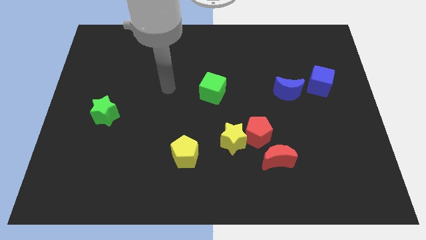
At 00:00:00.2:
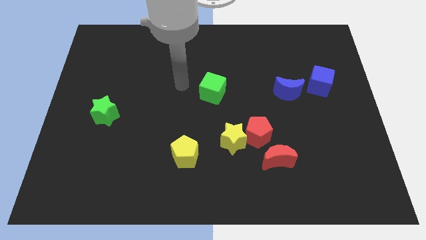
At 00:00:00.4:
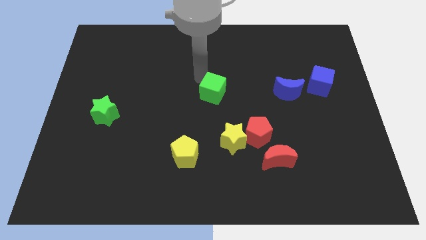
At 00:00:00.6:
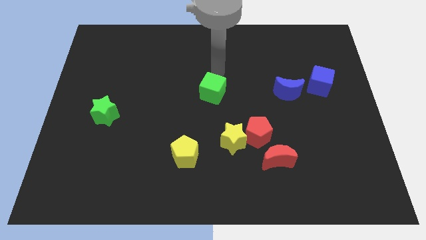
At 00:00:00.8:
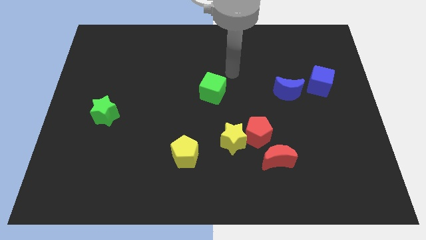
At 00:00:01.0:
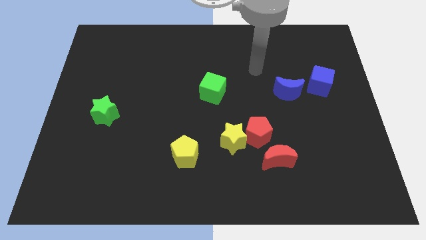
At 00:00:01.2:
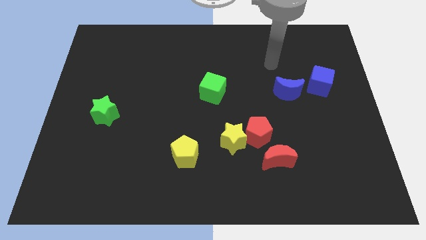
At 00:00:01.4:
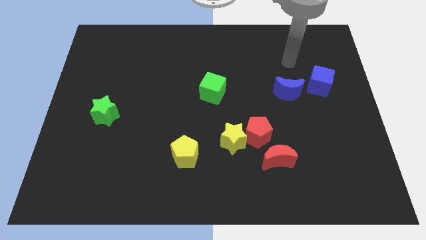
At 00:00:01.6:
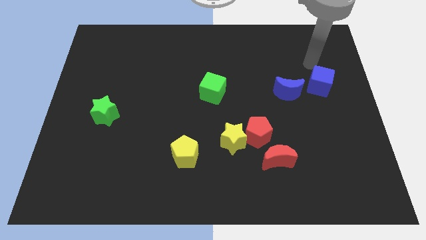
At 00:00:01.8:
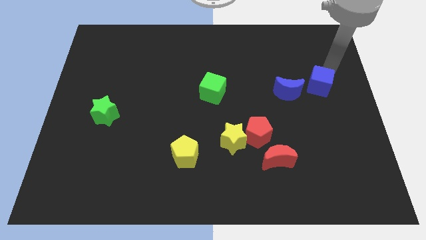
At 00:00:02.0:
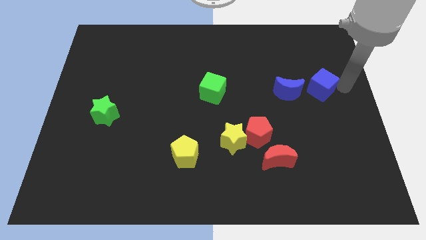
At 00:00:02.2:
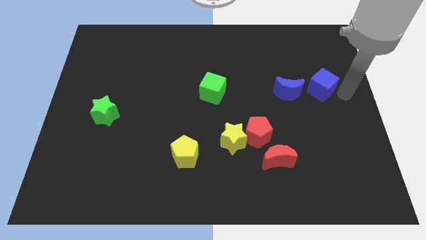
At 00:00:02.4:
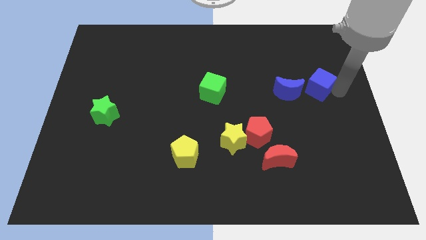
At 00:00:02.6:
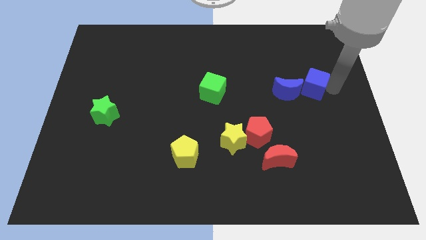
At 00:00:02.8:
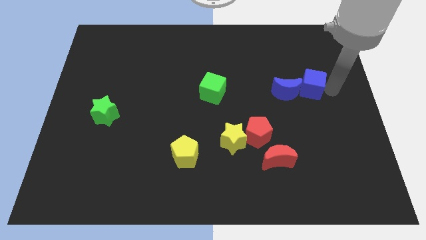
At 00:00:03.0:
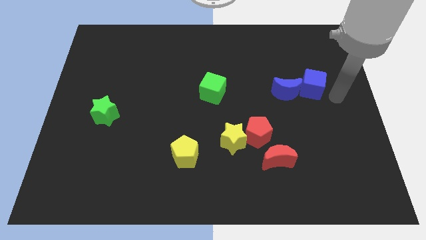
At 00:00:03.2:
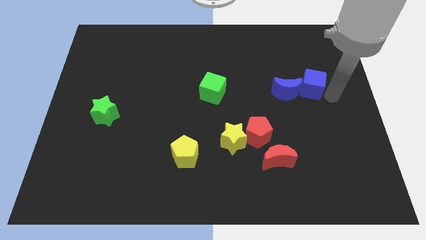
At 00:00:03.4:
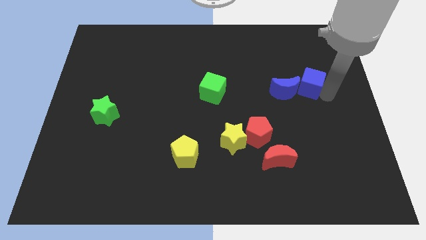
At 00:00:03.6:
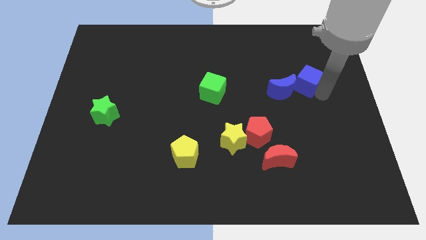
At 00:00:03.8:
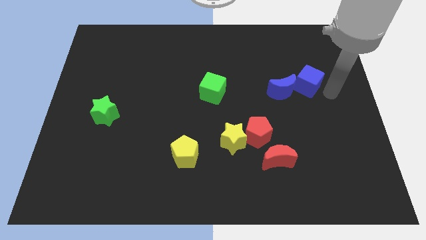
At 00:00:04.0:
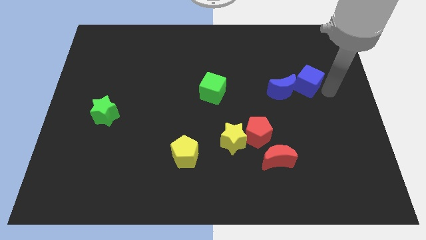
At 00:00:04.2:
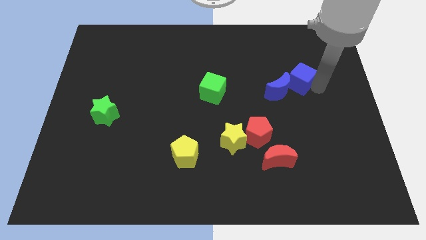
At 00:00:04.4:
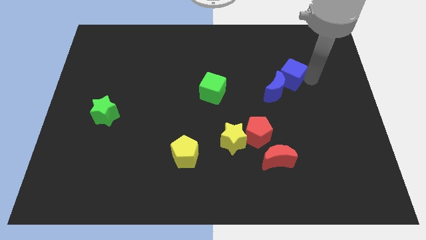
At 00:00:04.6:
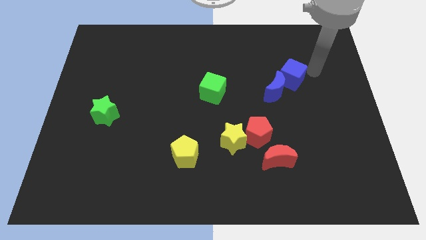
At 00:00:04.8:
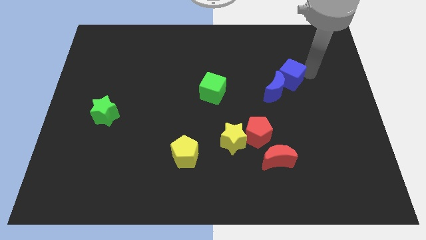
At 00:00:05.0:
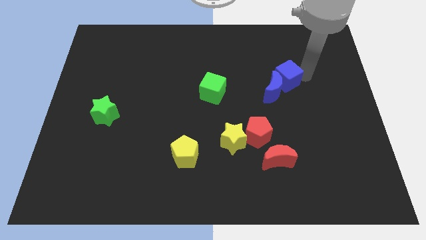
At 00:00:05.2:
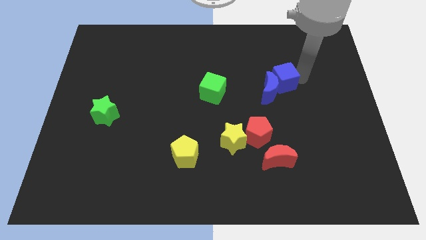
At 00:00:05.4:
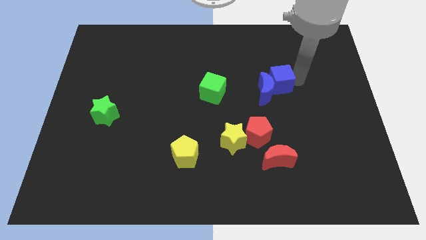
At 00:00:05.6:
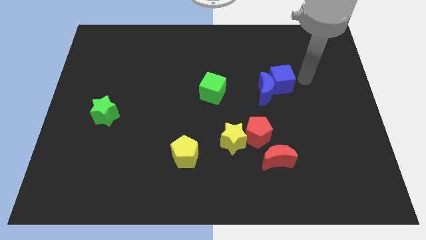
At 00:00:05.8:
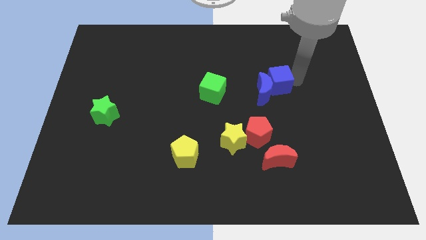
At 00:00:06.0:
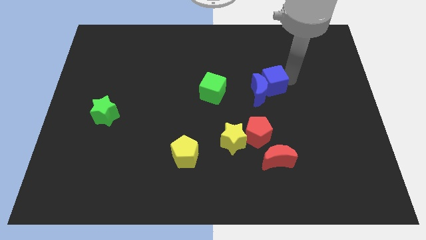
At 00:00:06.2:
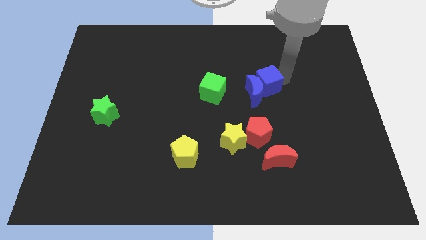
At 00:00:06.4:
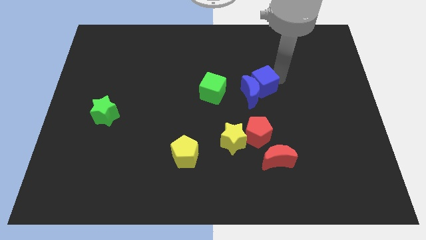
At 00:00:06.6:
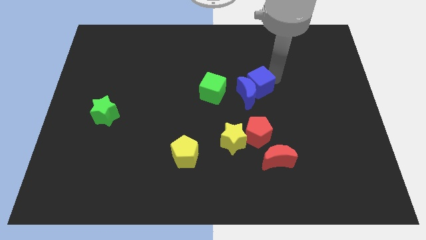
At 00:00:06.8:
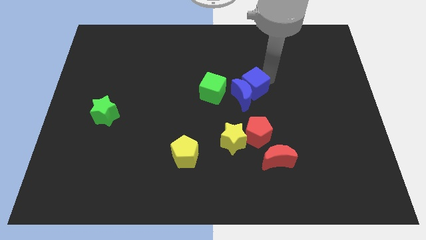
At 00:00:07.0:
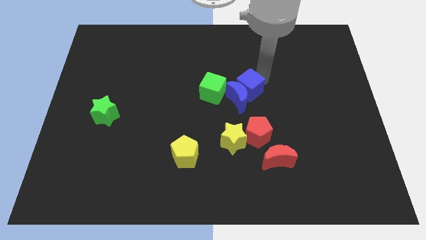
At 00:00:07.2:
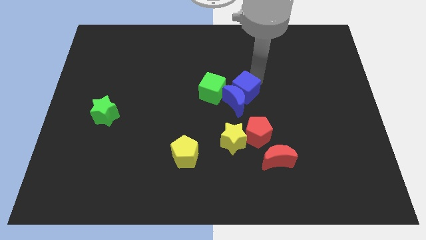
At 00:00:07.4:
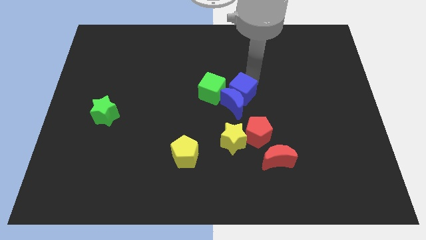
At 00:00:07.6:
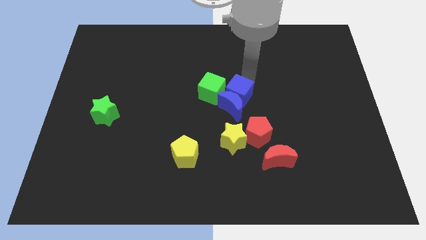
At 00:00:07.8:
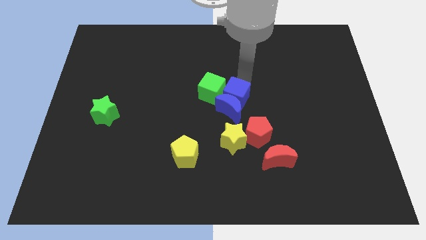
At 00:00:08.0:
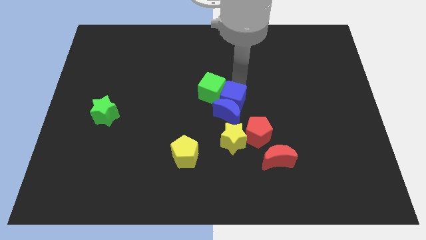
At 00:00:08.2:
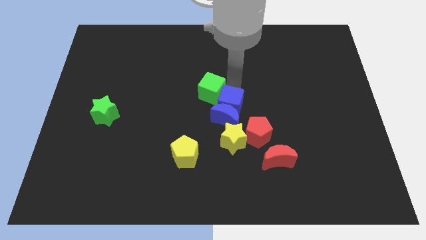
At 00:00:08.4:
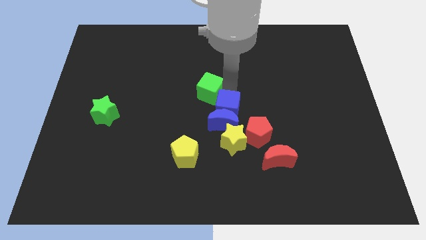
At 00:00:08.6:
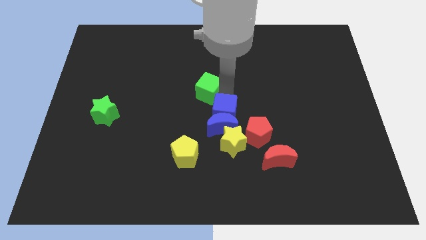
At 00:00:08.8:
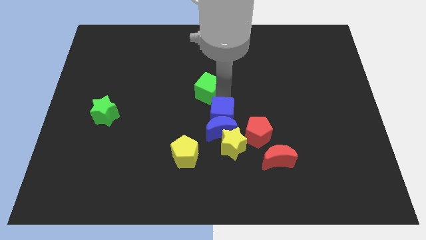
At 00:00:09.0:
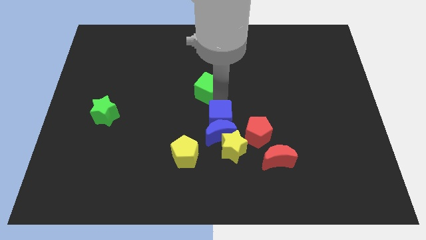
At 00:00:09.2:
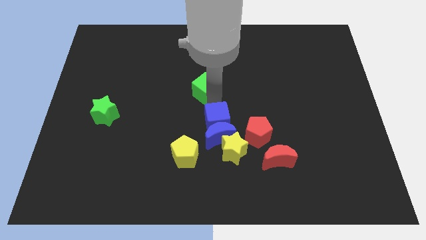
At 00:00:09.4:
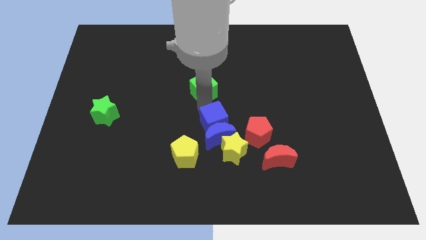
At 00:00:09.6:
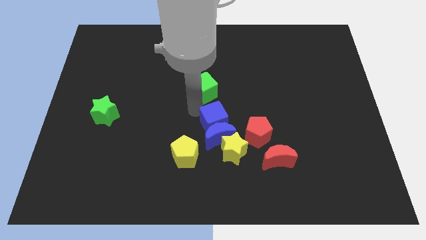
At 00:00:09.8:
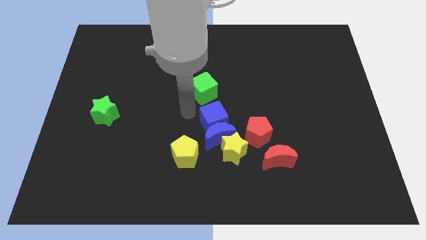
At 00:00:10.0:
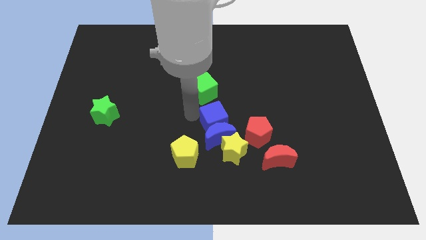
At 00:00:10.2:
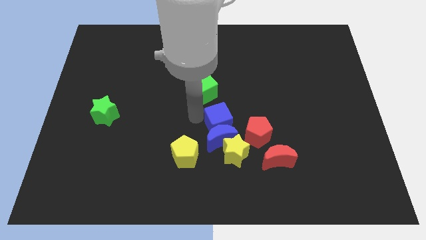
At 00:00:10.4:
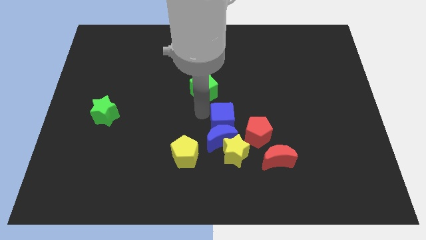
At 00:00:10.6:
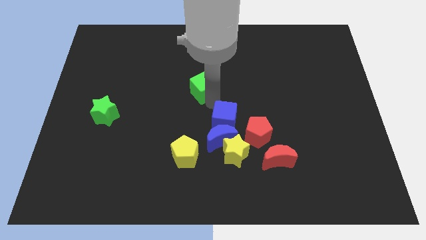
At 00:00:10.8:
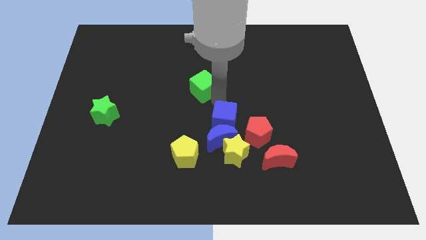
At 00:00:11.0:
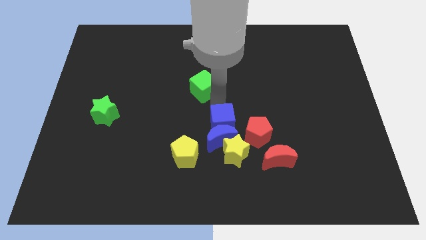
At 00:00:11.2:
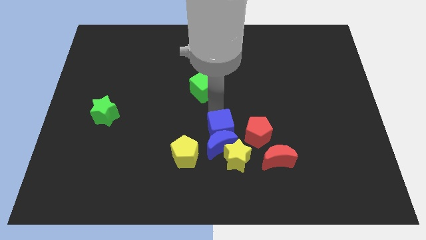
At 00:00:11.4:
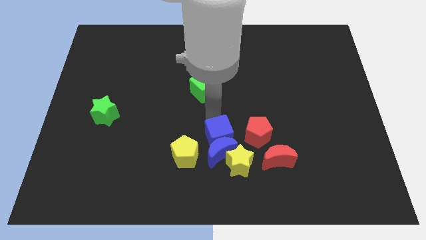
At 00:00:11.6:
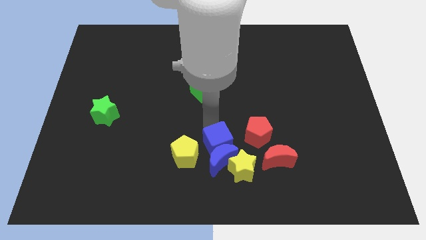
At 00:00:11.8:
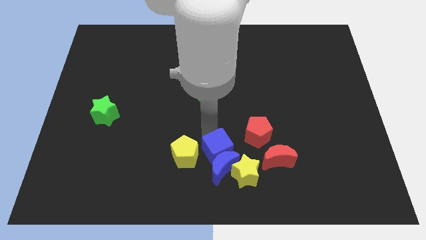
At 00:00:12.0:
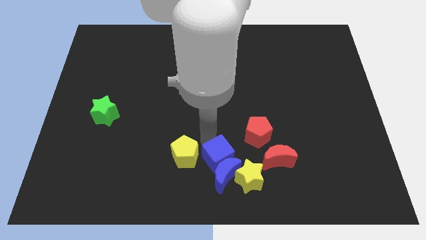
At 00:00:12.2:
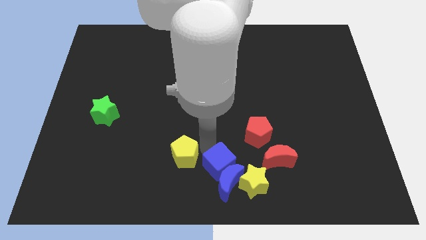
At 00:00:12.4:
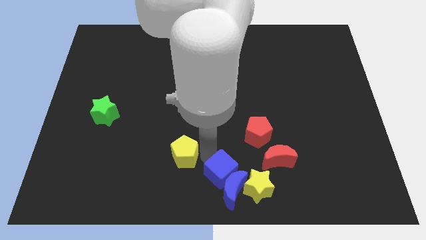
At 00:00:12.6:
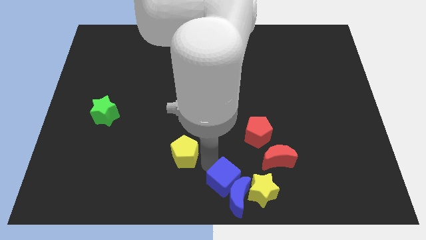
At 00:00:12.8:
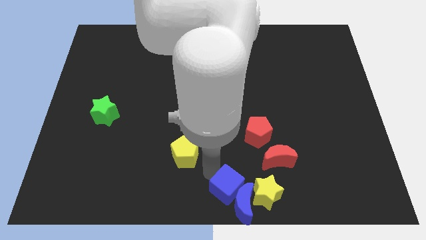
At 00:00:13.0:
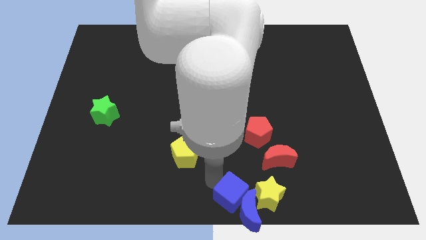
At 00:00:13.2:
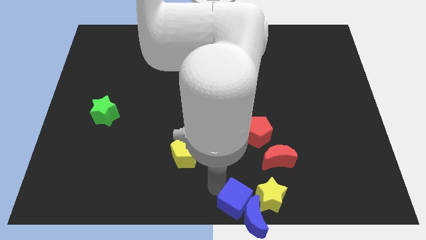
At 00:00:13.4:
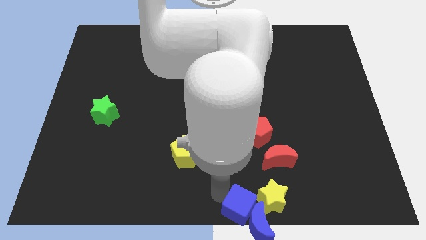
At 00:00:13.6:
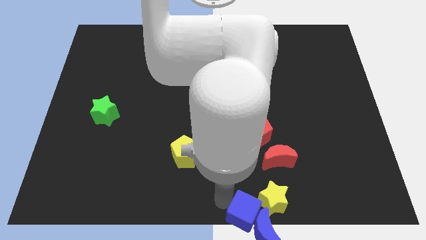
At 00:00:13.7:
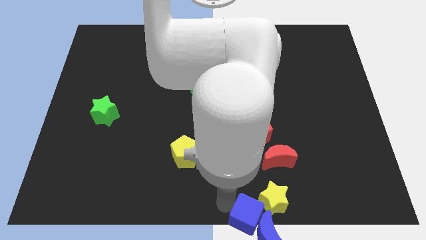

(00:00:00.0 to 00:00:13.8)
move the blue cube to the yellow star

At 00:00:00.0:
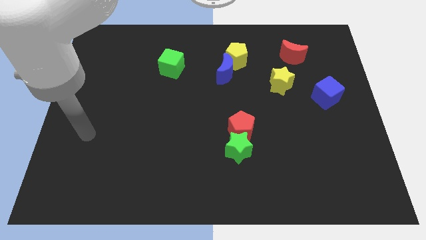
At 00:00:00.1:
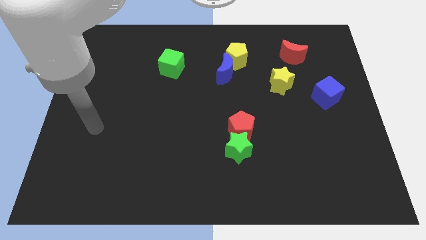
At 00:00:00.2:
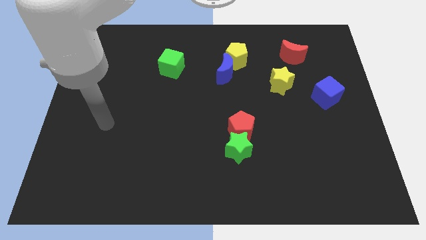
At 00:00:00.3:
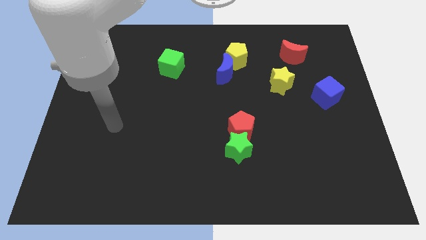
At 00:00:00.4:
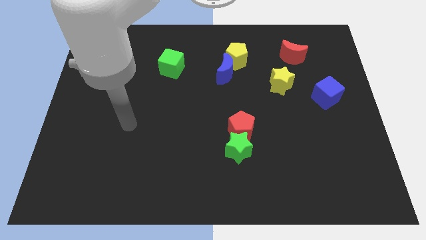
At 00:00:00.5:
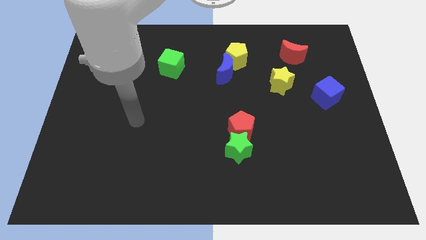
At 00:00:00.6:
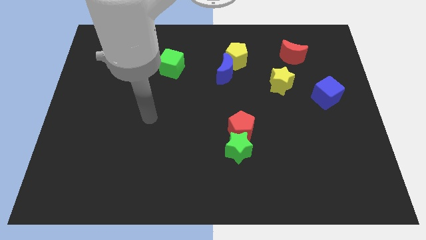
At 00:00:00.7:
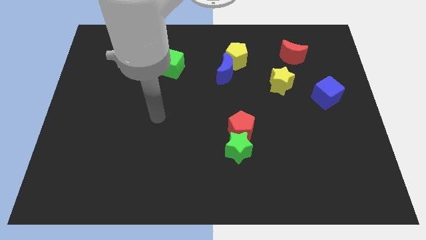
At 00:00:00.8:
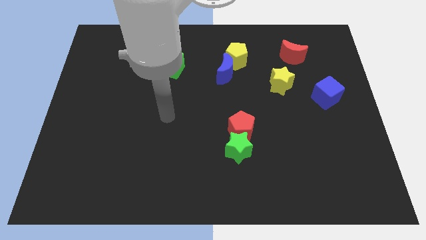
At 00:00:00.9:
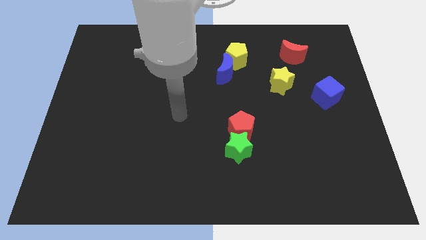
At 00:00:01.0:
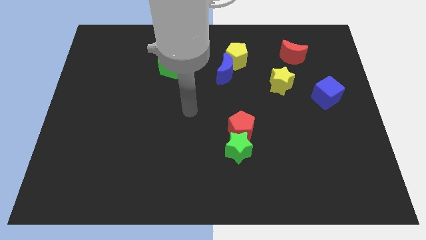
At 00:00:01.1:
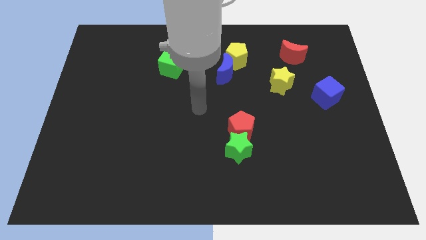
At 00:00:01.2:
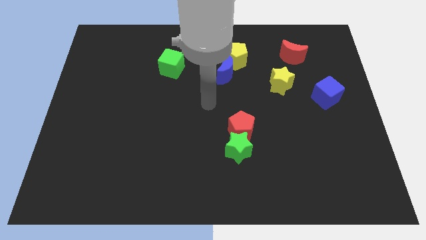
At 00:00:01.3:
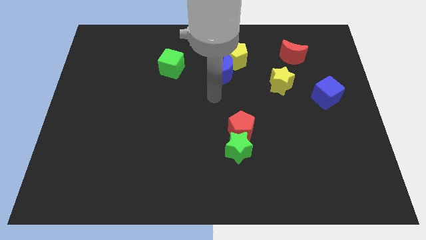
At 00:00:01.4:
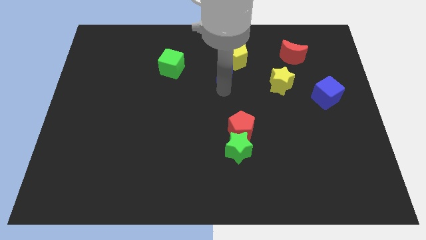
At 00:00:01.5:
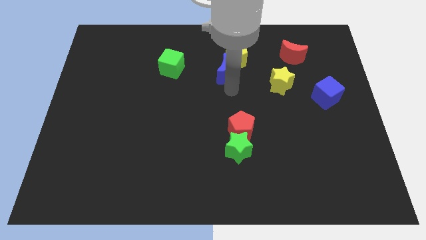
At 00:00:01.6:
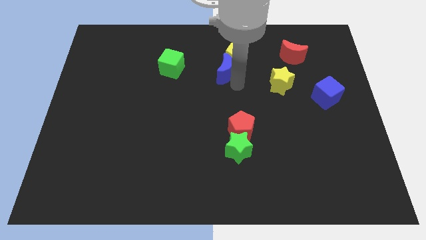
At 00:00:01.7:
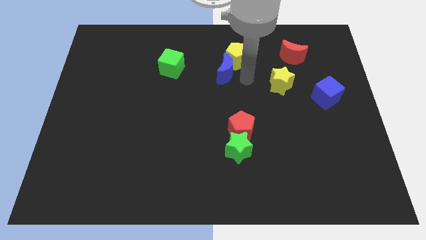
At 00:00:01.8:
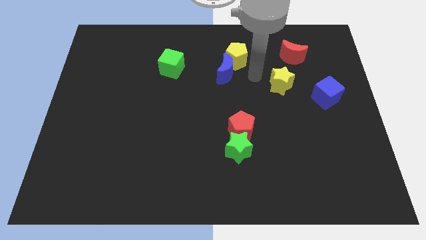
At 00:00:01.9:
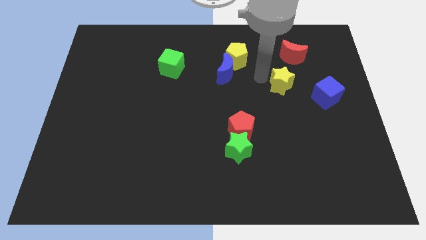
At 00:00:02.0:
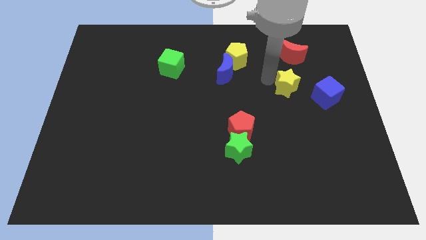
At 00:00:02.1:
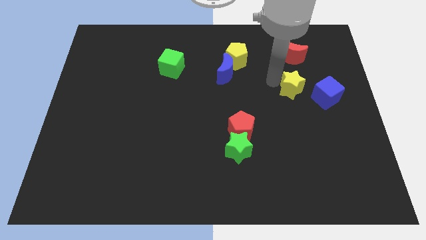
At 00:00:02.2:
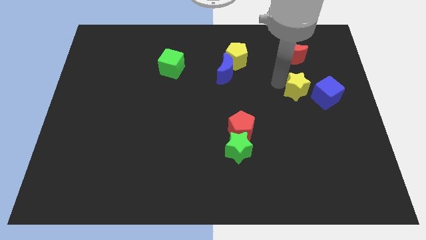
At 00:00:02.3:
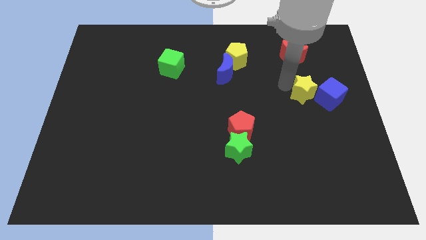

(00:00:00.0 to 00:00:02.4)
slide the yellow star towards the blue cube
